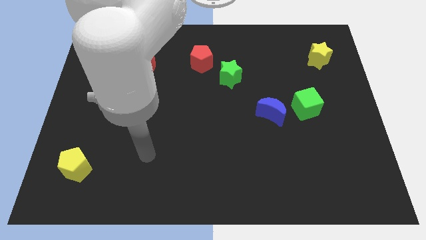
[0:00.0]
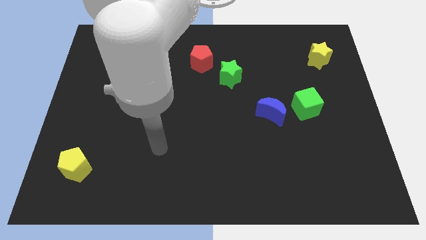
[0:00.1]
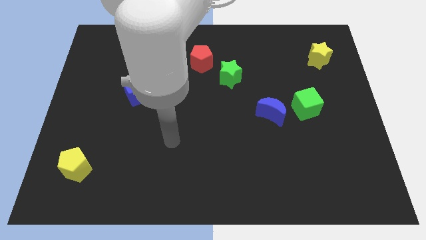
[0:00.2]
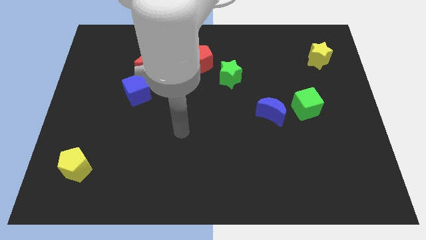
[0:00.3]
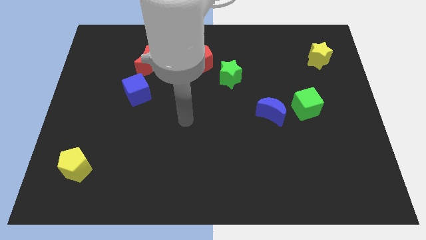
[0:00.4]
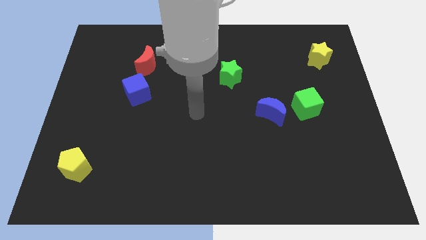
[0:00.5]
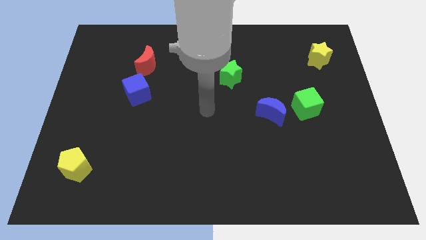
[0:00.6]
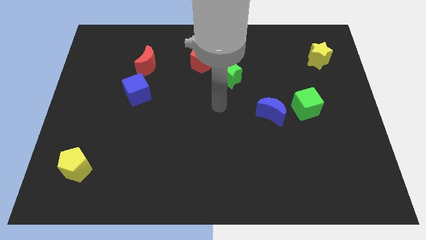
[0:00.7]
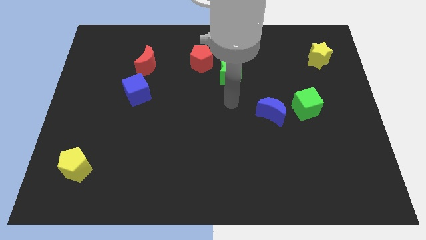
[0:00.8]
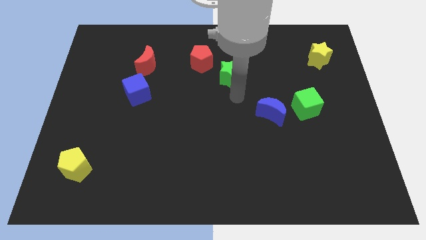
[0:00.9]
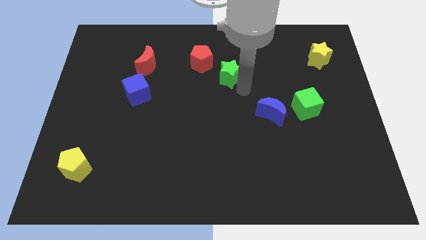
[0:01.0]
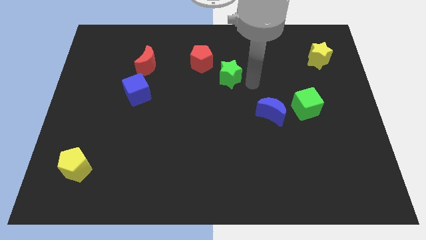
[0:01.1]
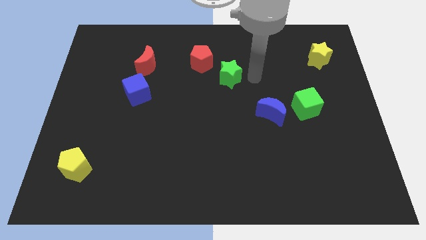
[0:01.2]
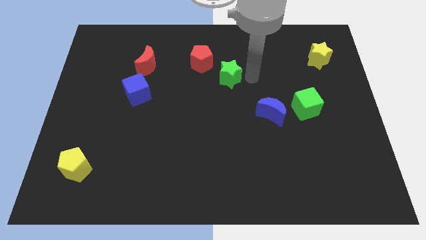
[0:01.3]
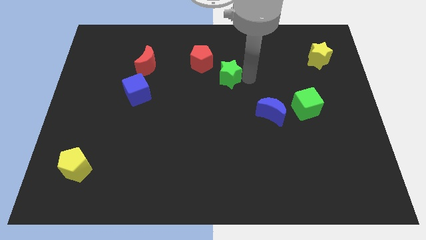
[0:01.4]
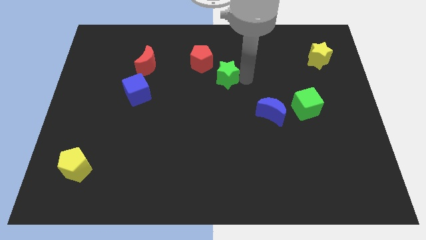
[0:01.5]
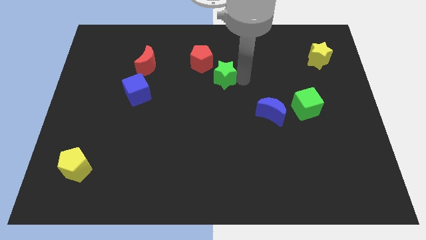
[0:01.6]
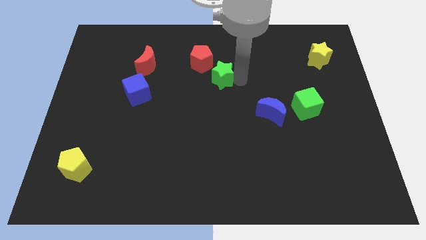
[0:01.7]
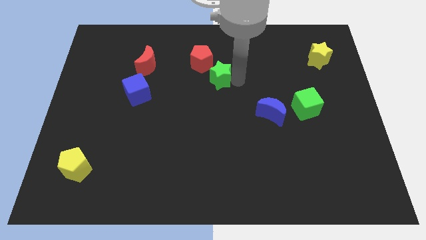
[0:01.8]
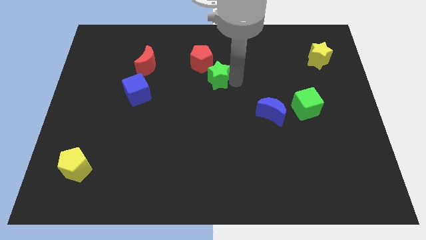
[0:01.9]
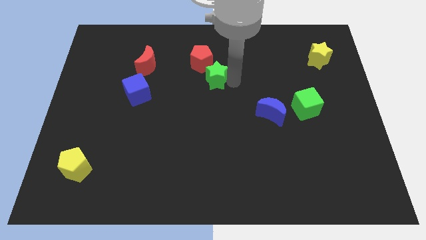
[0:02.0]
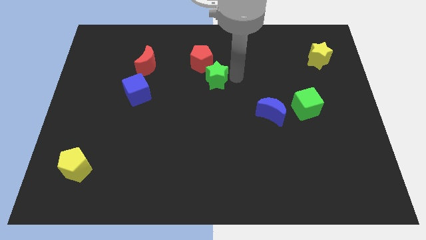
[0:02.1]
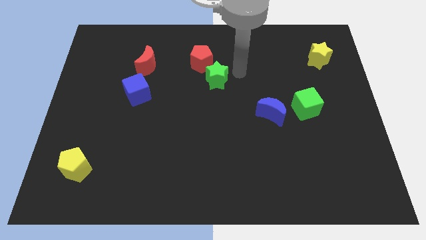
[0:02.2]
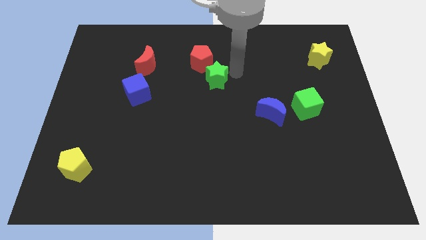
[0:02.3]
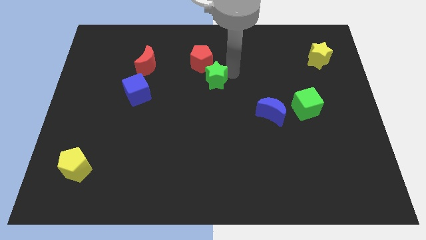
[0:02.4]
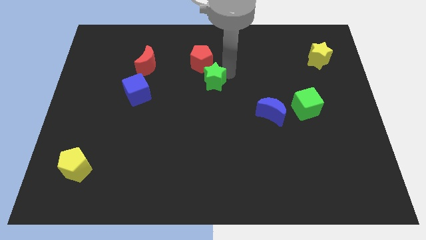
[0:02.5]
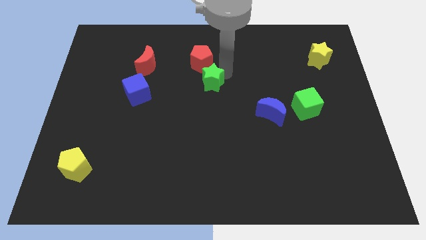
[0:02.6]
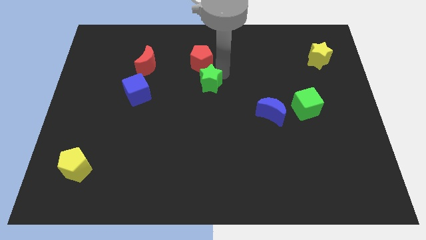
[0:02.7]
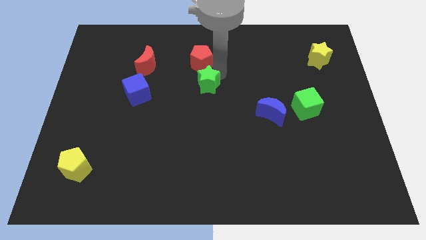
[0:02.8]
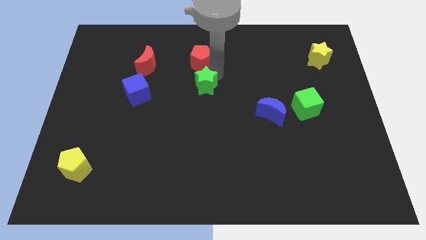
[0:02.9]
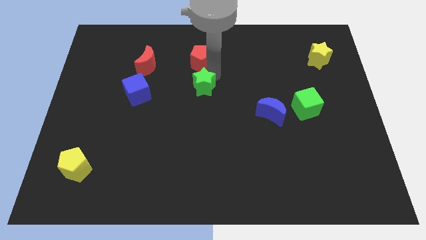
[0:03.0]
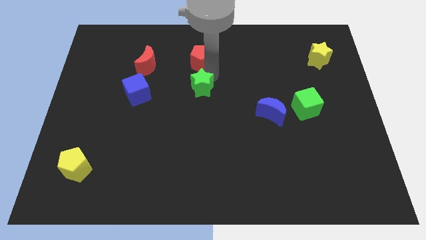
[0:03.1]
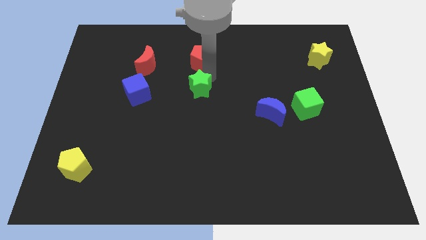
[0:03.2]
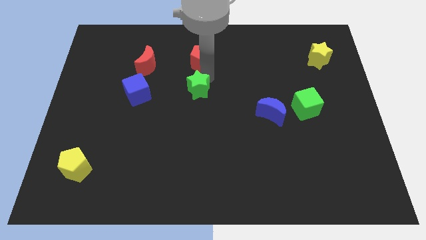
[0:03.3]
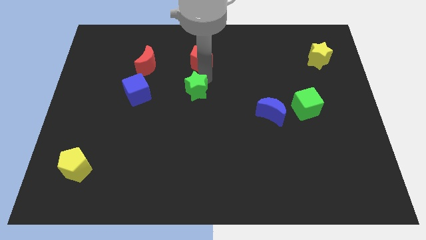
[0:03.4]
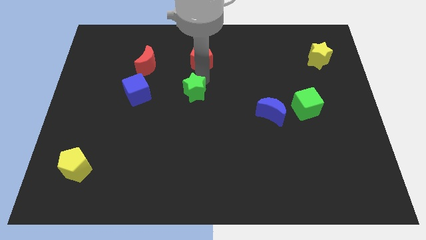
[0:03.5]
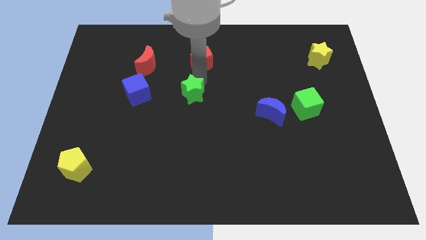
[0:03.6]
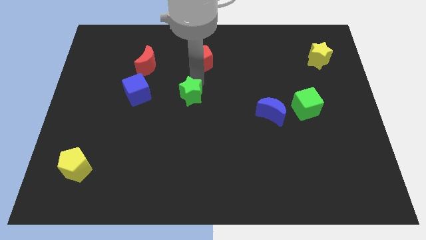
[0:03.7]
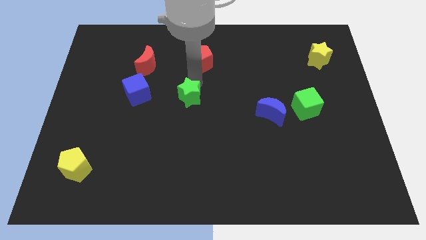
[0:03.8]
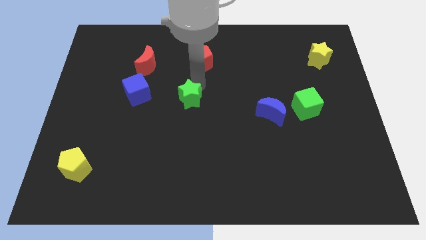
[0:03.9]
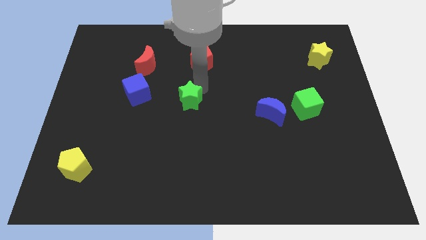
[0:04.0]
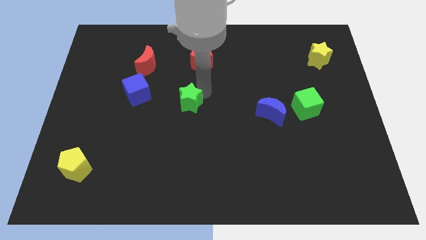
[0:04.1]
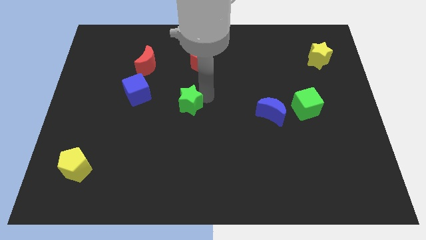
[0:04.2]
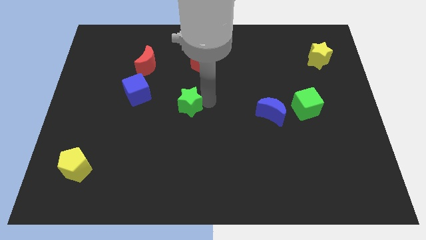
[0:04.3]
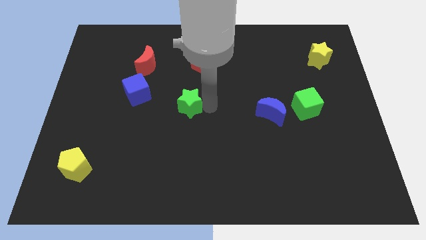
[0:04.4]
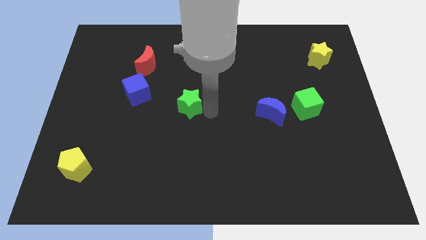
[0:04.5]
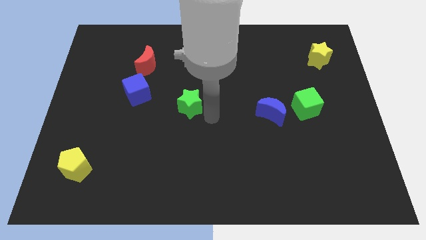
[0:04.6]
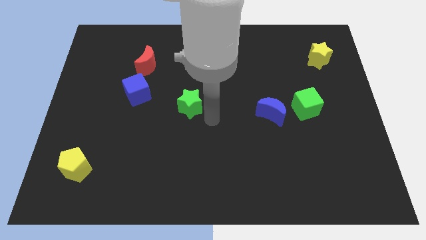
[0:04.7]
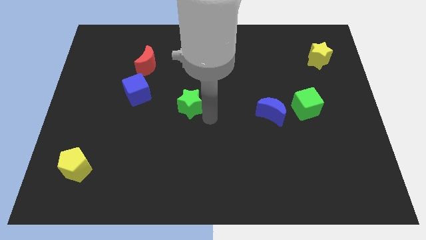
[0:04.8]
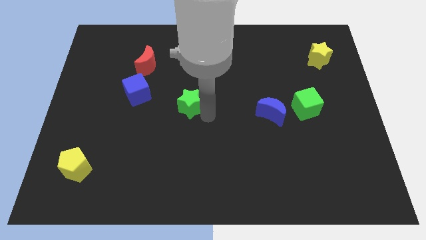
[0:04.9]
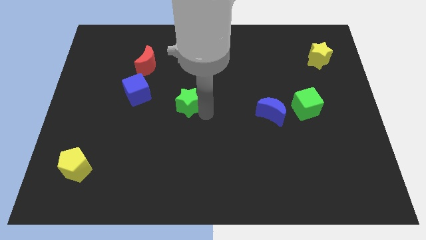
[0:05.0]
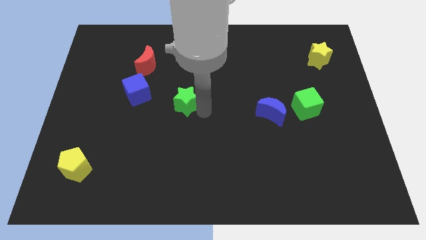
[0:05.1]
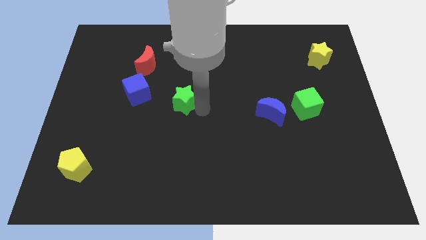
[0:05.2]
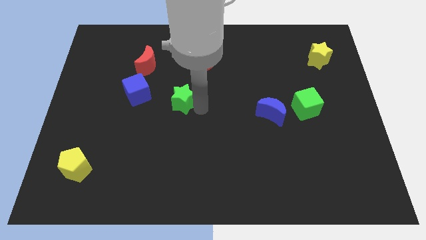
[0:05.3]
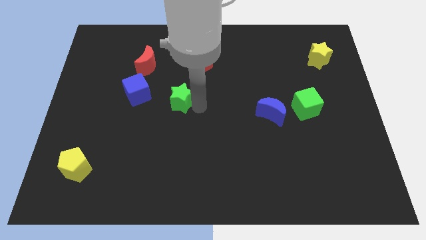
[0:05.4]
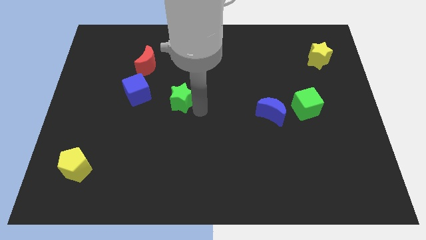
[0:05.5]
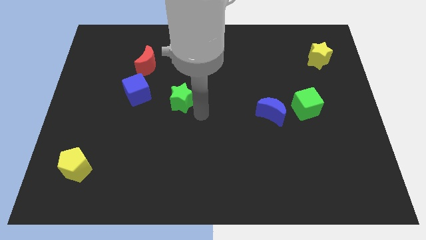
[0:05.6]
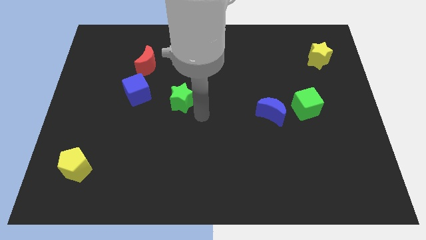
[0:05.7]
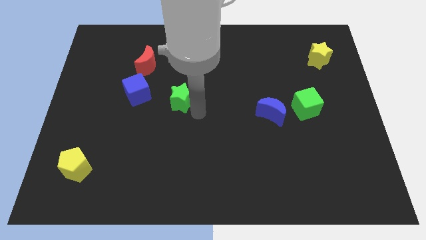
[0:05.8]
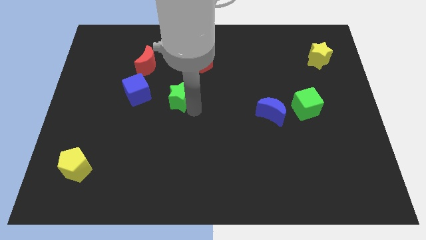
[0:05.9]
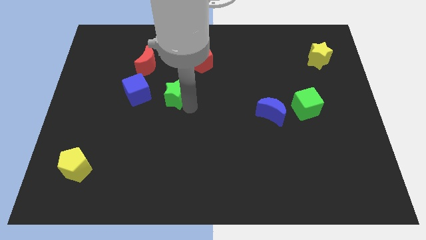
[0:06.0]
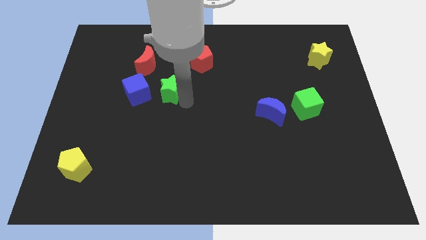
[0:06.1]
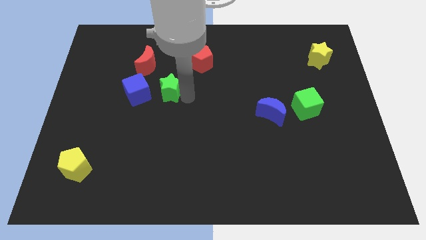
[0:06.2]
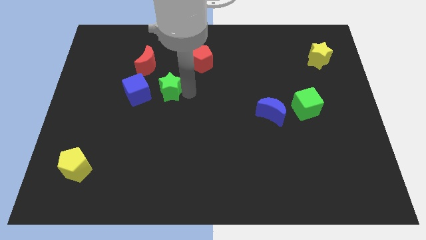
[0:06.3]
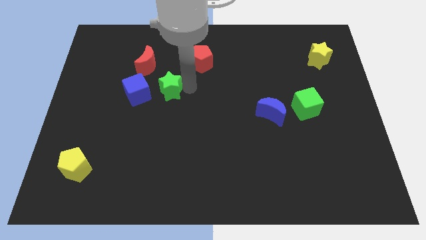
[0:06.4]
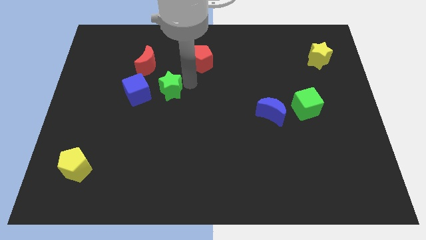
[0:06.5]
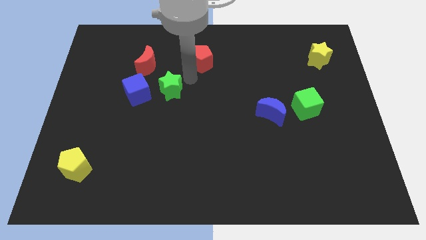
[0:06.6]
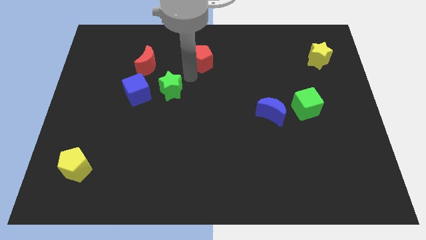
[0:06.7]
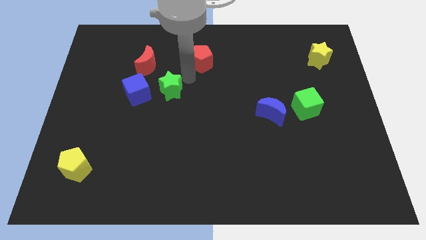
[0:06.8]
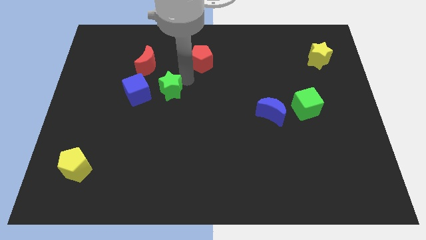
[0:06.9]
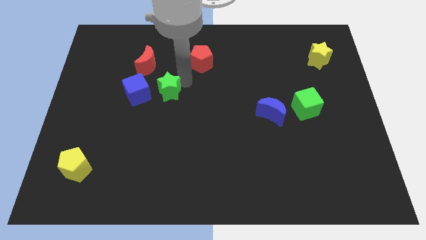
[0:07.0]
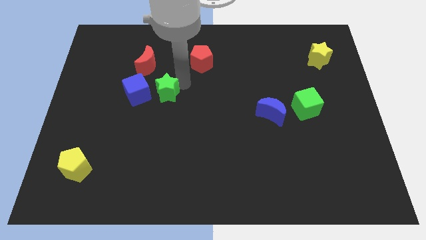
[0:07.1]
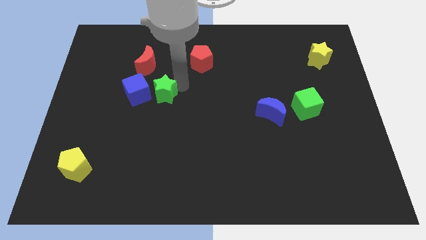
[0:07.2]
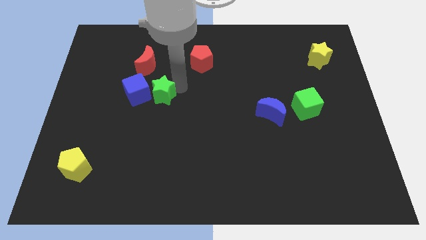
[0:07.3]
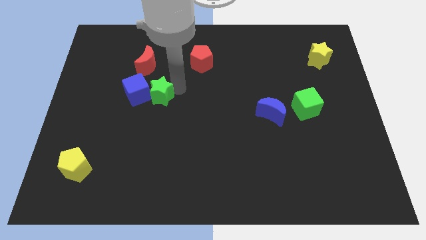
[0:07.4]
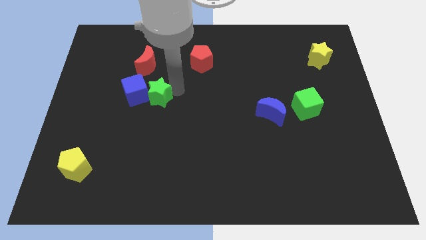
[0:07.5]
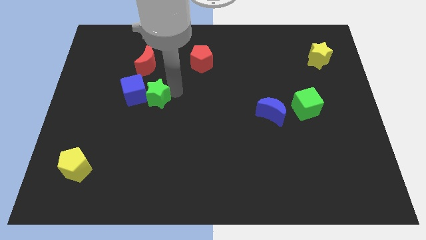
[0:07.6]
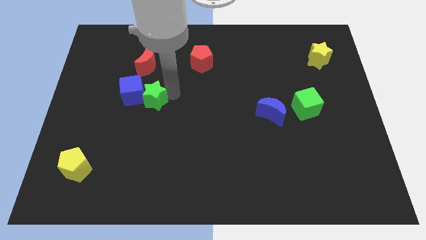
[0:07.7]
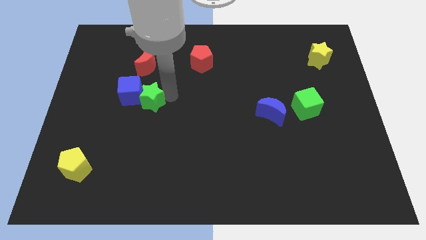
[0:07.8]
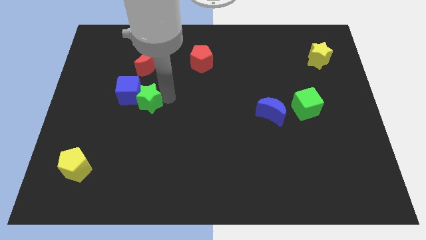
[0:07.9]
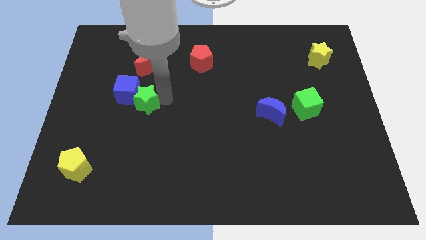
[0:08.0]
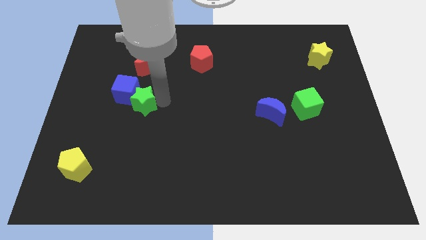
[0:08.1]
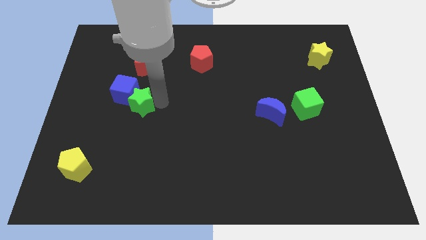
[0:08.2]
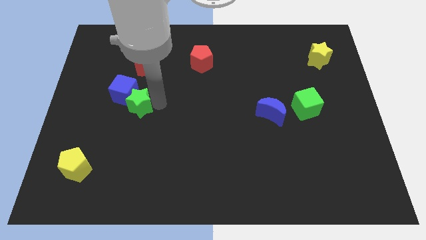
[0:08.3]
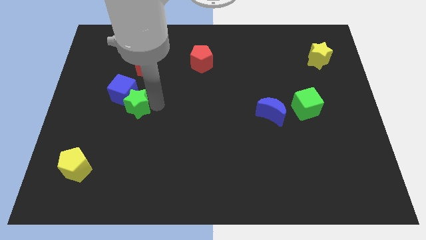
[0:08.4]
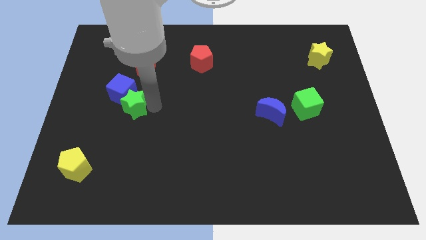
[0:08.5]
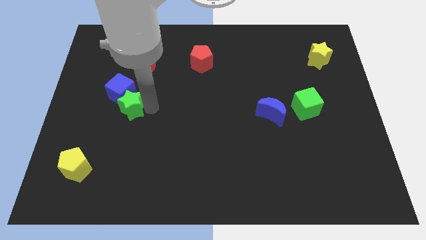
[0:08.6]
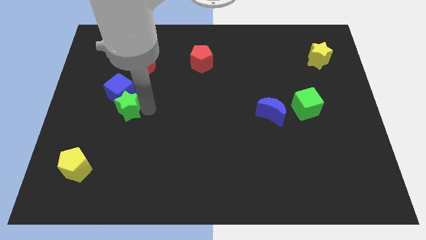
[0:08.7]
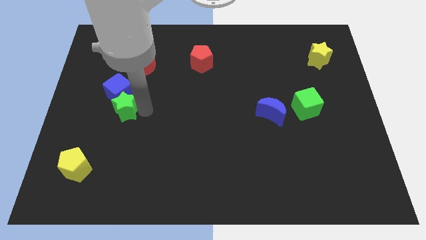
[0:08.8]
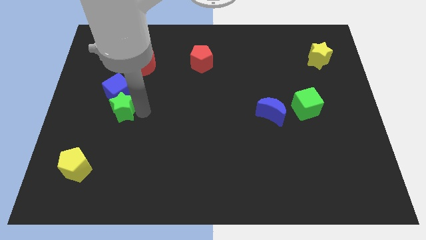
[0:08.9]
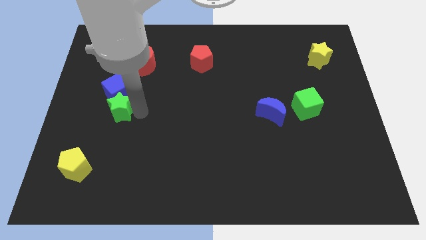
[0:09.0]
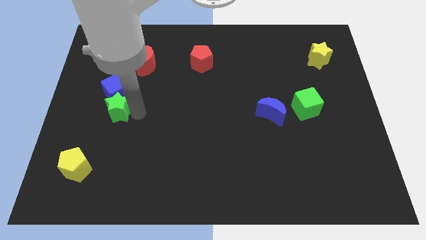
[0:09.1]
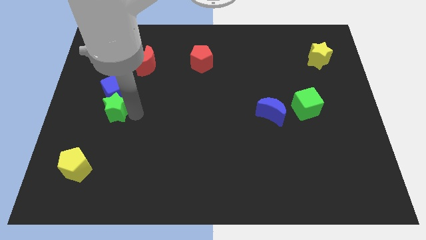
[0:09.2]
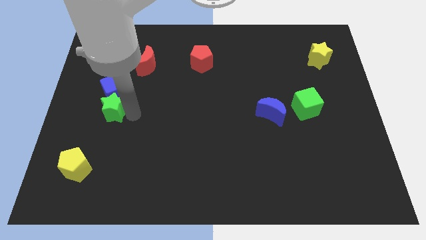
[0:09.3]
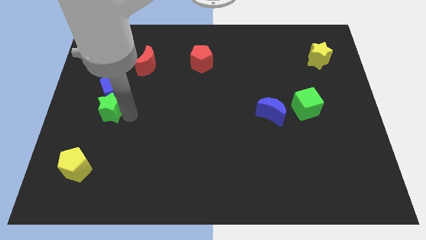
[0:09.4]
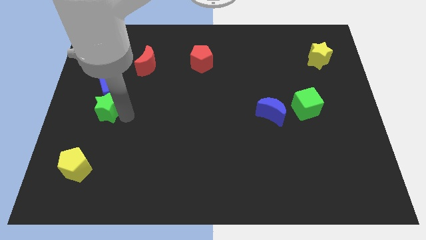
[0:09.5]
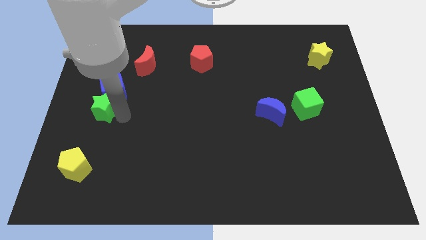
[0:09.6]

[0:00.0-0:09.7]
slide the green star to the center left
